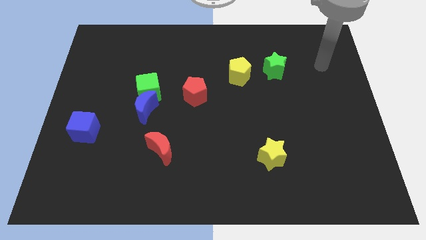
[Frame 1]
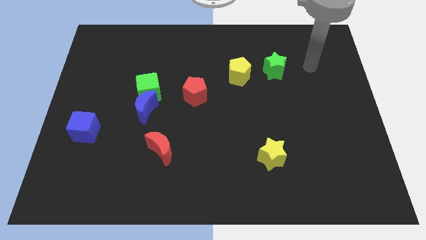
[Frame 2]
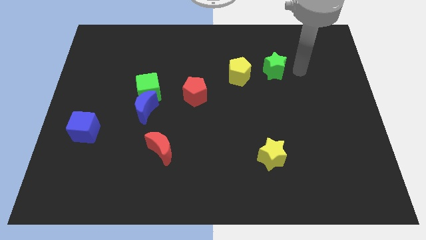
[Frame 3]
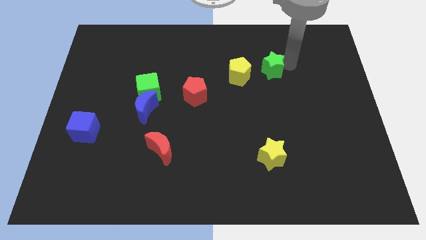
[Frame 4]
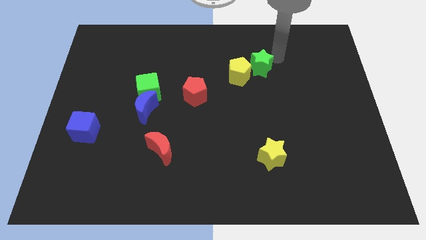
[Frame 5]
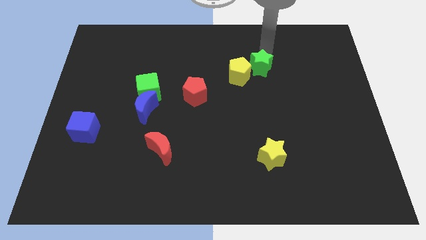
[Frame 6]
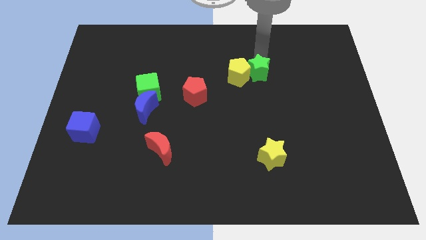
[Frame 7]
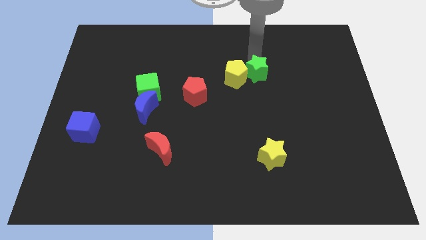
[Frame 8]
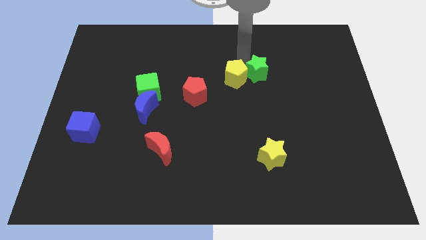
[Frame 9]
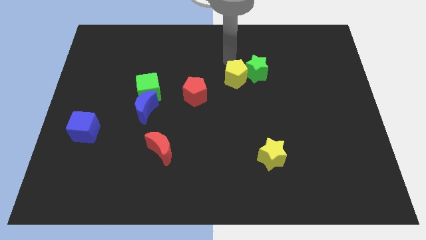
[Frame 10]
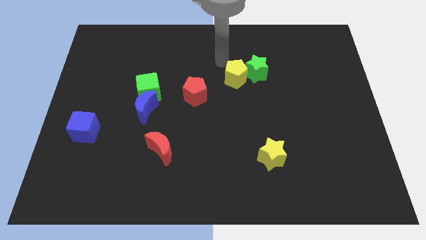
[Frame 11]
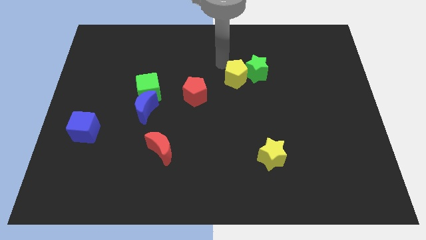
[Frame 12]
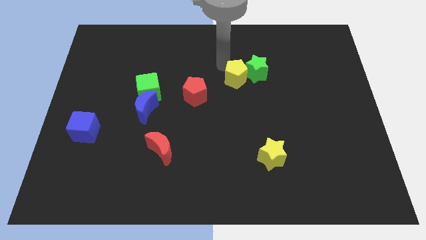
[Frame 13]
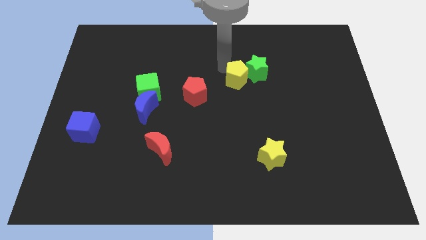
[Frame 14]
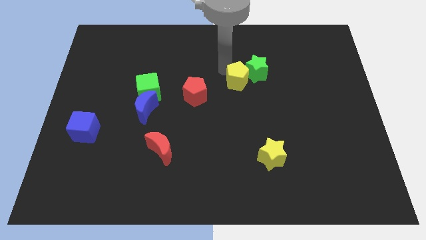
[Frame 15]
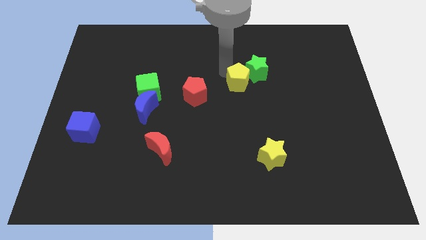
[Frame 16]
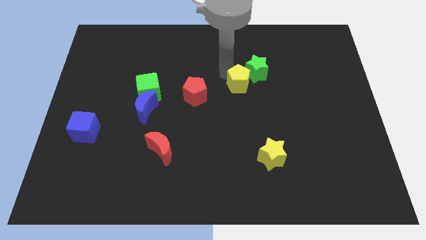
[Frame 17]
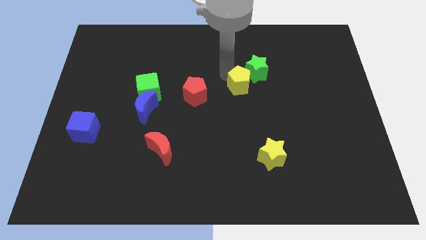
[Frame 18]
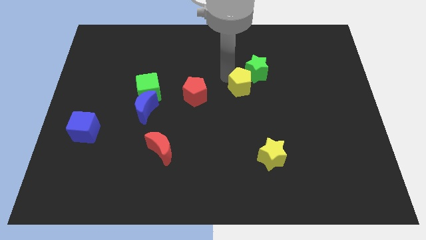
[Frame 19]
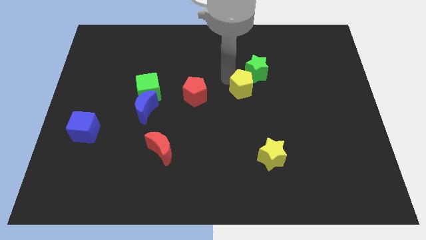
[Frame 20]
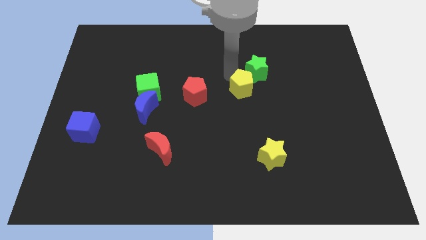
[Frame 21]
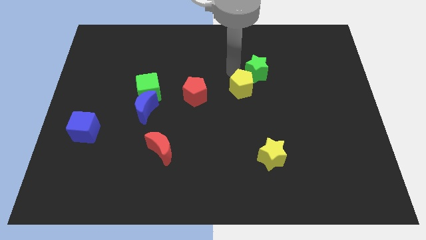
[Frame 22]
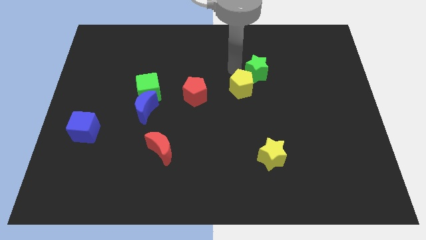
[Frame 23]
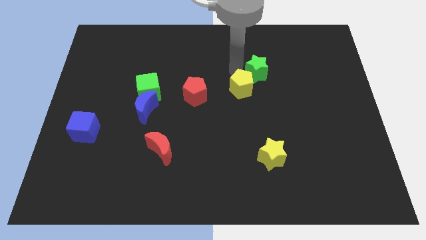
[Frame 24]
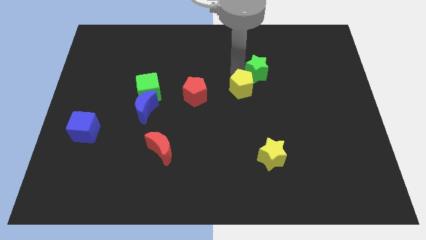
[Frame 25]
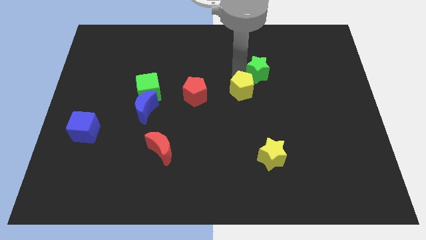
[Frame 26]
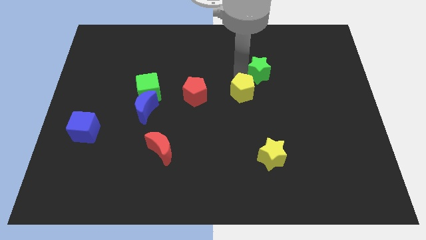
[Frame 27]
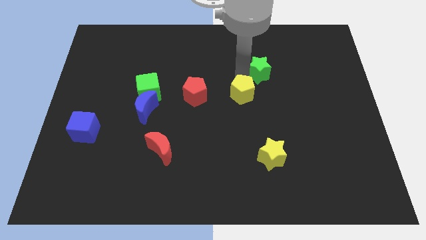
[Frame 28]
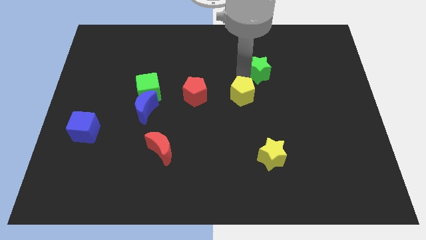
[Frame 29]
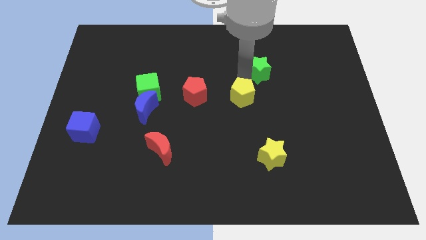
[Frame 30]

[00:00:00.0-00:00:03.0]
slightly move the yellow pentagon down

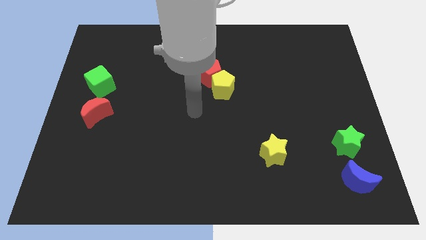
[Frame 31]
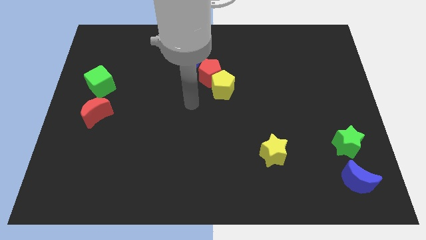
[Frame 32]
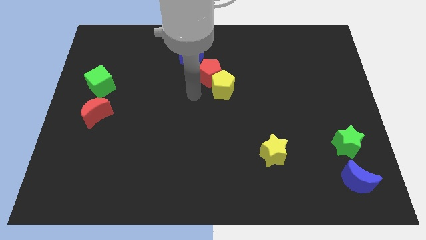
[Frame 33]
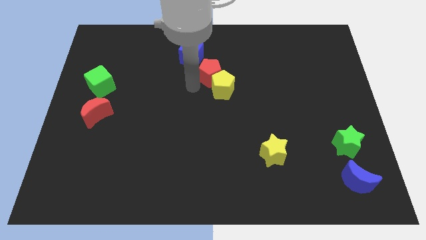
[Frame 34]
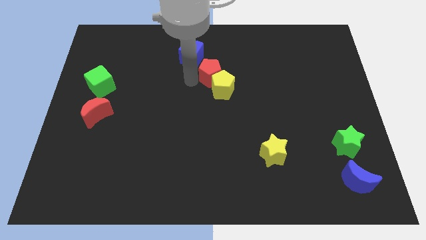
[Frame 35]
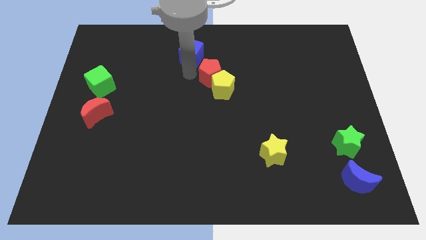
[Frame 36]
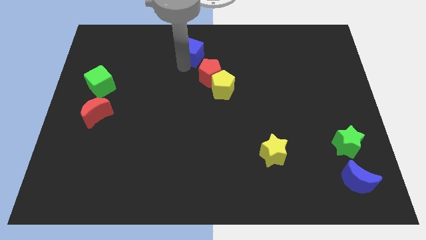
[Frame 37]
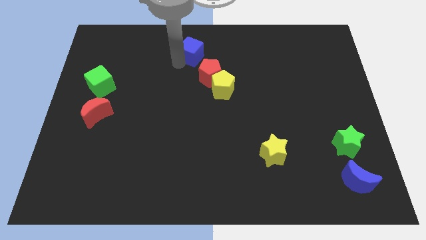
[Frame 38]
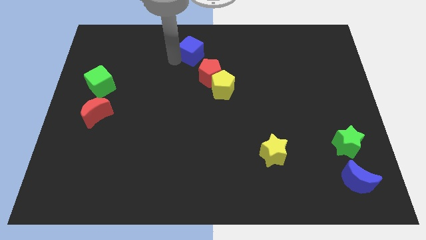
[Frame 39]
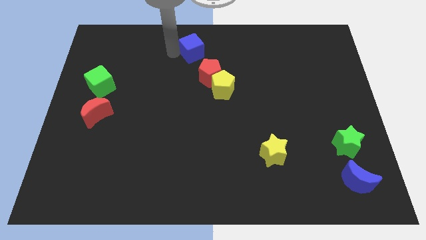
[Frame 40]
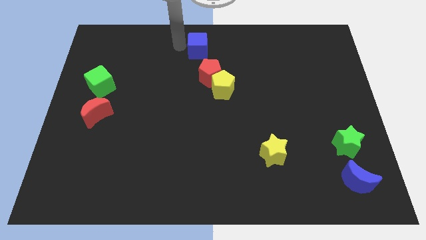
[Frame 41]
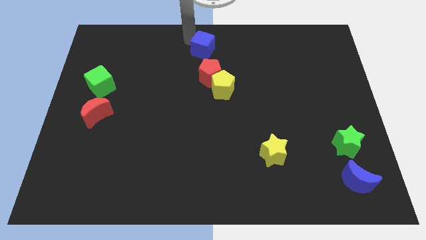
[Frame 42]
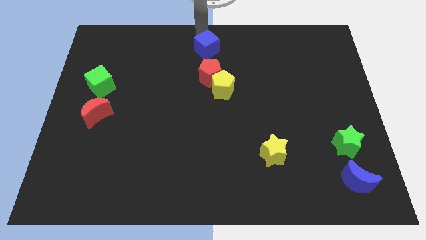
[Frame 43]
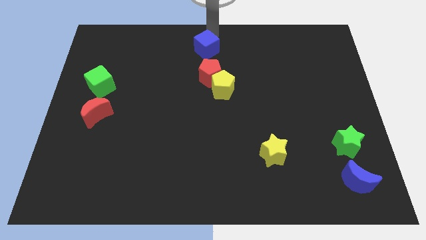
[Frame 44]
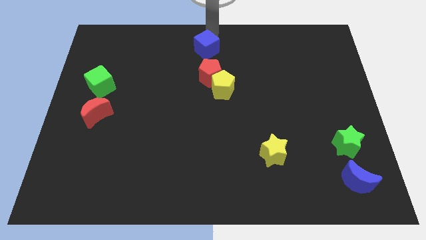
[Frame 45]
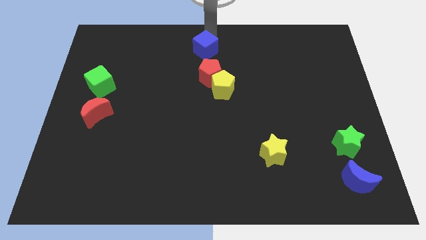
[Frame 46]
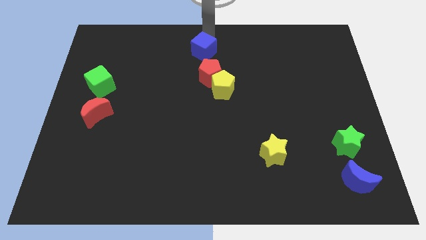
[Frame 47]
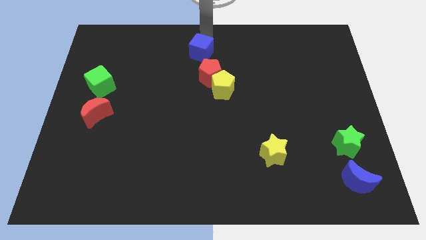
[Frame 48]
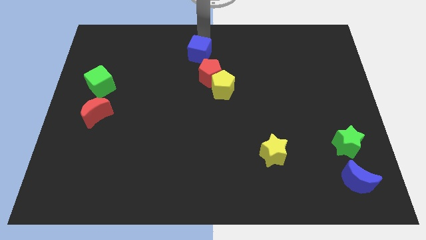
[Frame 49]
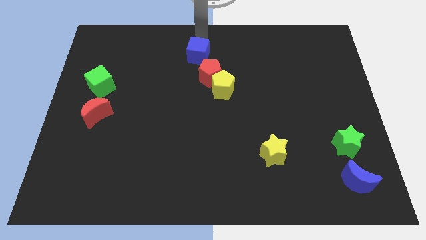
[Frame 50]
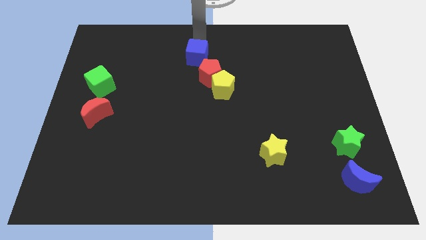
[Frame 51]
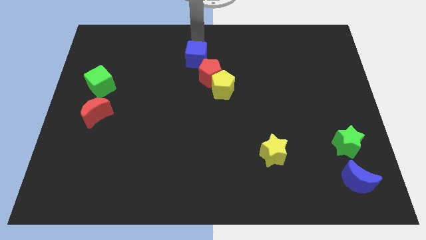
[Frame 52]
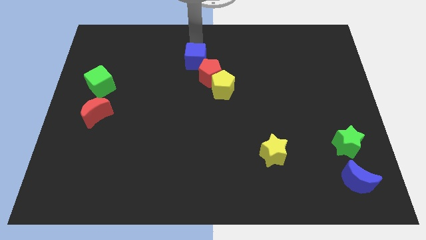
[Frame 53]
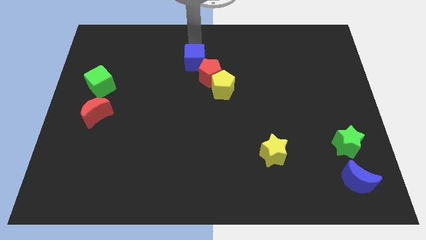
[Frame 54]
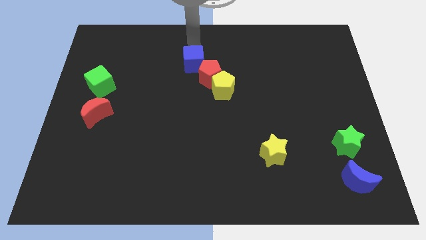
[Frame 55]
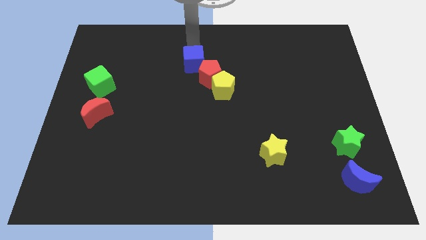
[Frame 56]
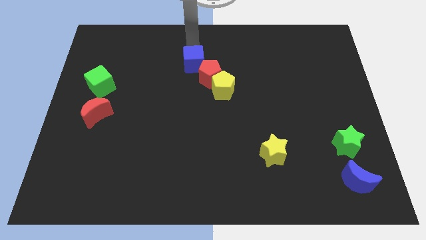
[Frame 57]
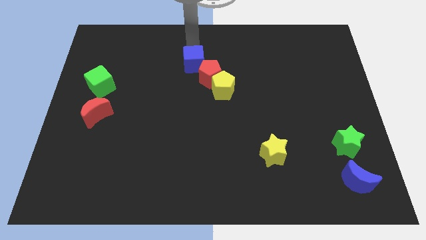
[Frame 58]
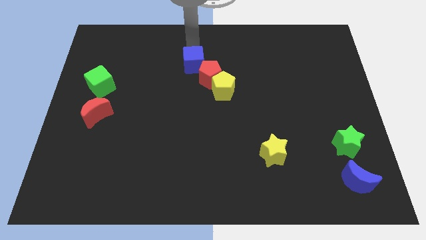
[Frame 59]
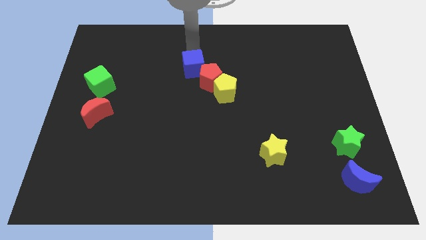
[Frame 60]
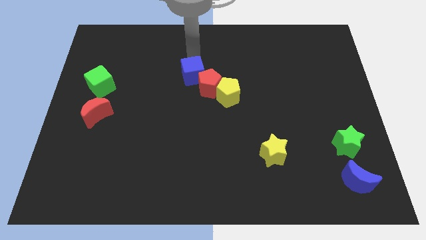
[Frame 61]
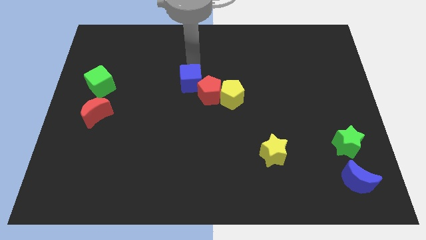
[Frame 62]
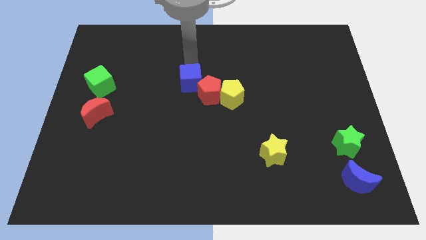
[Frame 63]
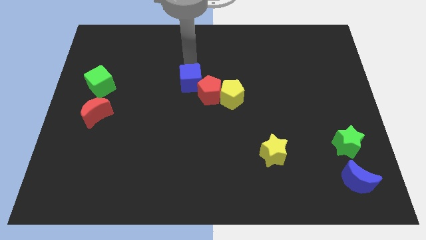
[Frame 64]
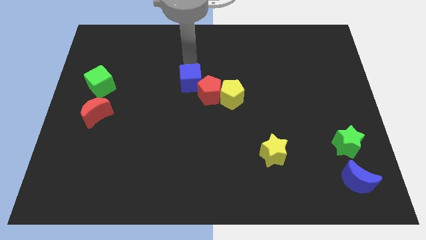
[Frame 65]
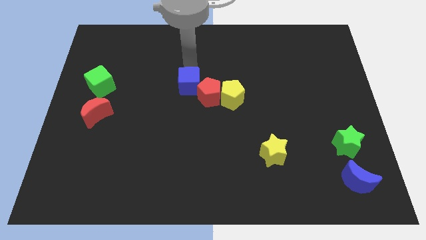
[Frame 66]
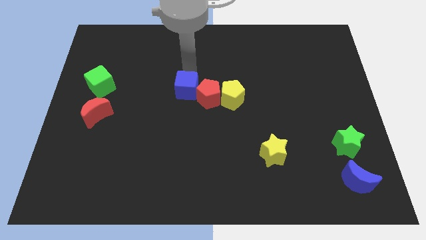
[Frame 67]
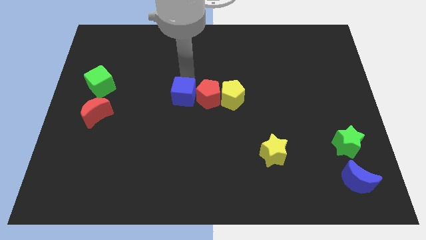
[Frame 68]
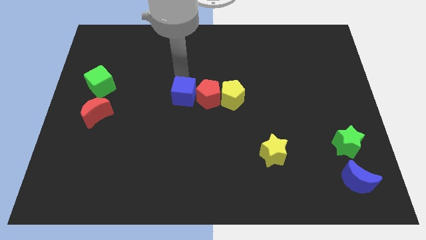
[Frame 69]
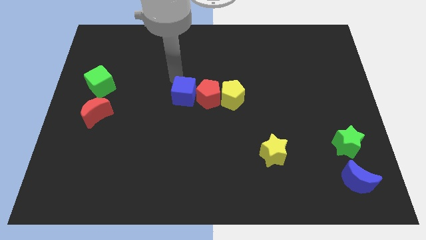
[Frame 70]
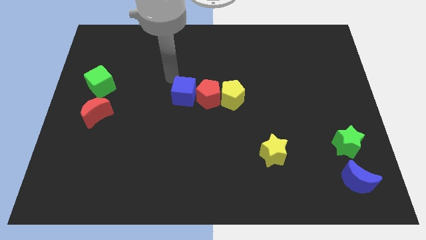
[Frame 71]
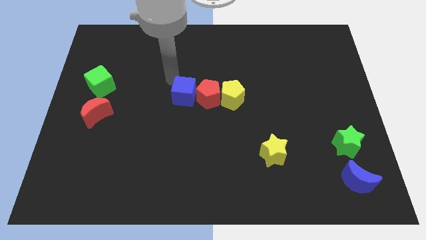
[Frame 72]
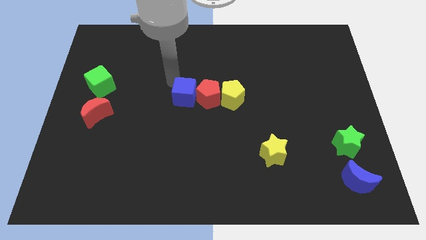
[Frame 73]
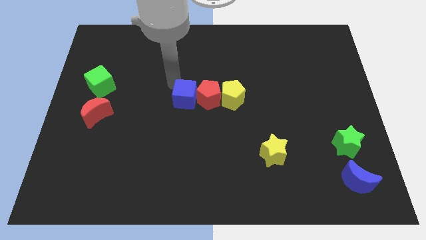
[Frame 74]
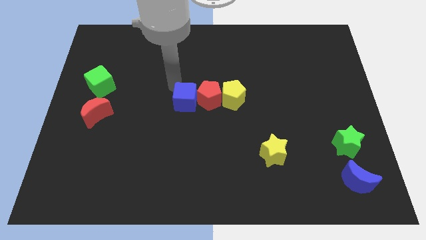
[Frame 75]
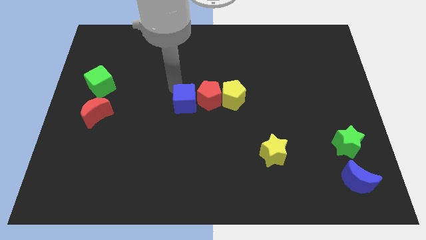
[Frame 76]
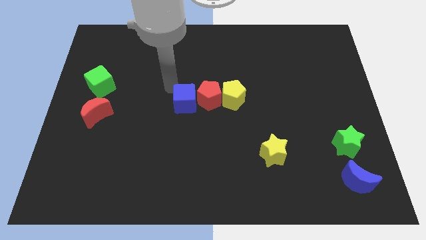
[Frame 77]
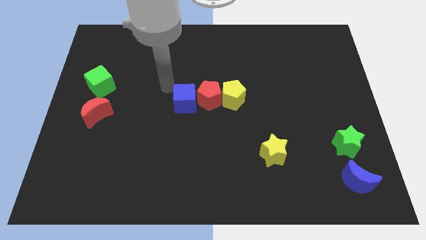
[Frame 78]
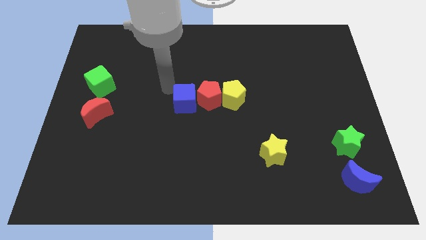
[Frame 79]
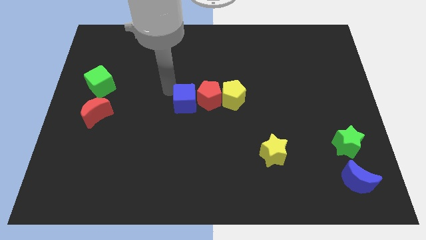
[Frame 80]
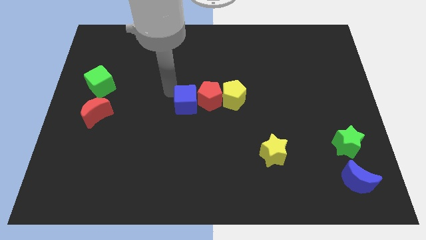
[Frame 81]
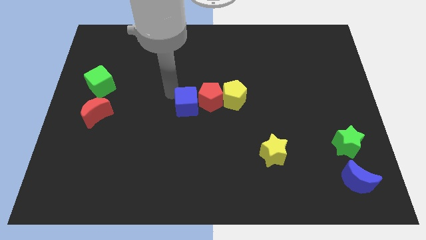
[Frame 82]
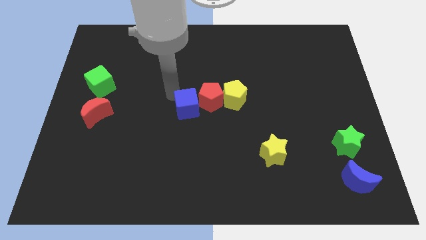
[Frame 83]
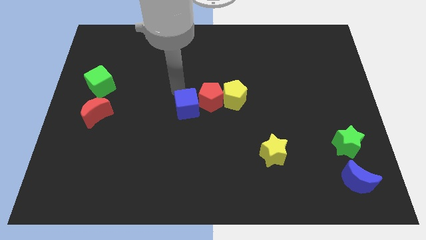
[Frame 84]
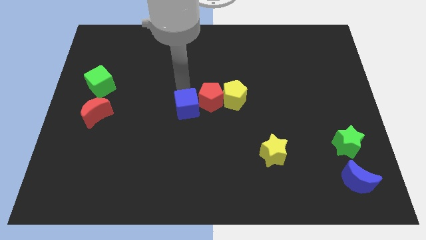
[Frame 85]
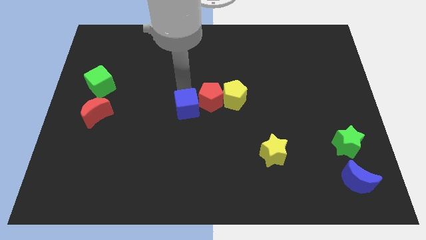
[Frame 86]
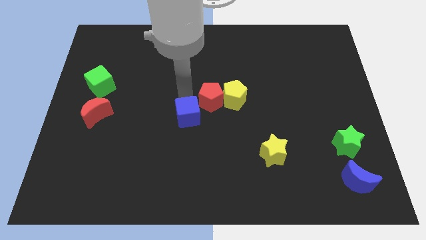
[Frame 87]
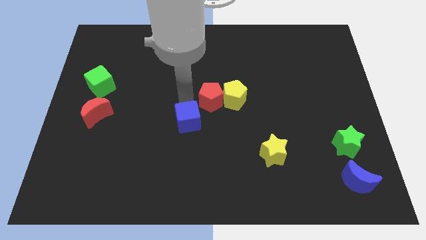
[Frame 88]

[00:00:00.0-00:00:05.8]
move the blue cube downwards
